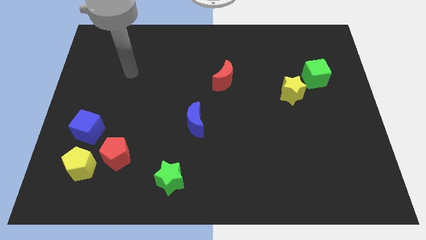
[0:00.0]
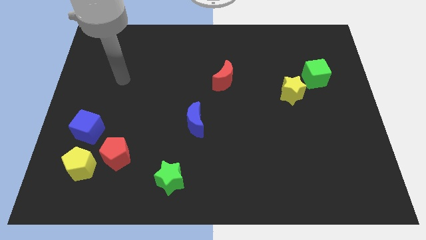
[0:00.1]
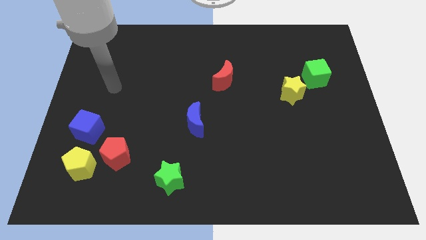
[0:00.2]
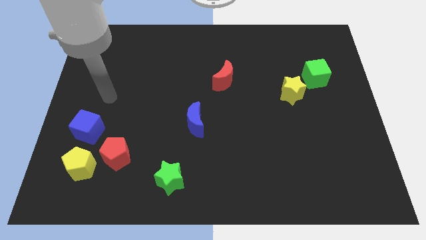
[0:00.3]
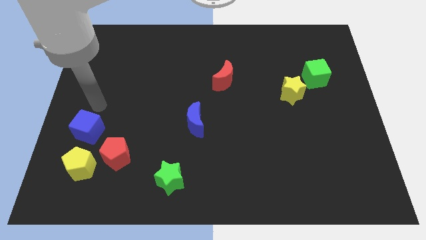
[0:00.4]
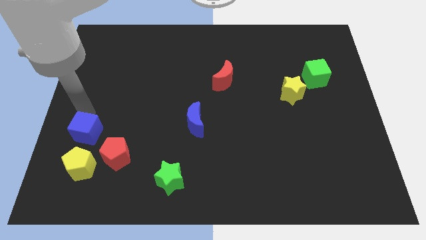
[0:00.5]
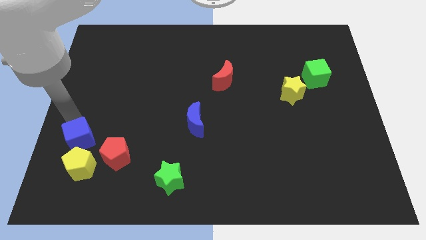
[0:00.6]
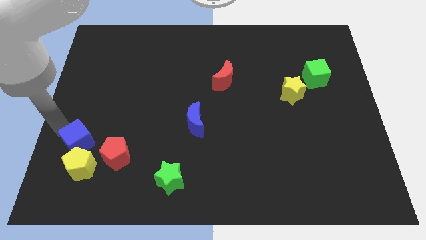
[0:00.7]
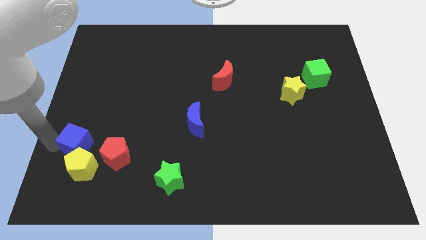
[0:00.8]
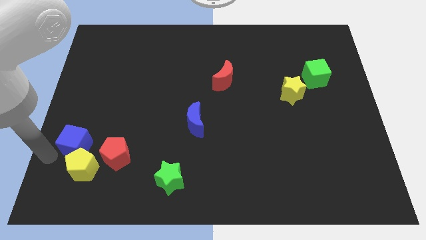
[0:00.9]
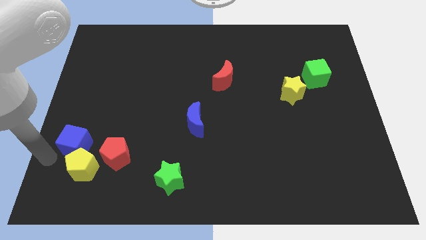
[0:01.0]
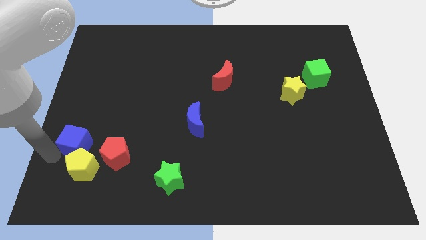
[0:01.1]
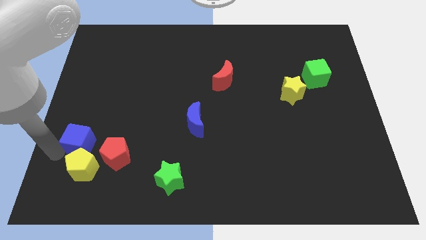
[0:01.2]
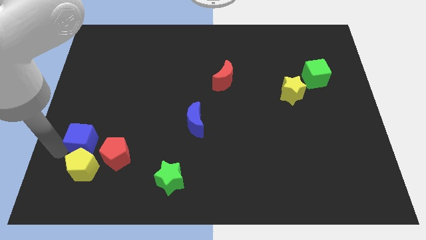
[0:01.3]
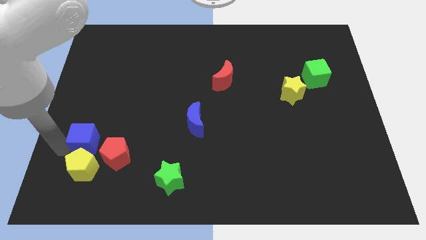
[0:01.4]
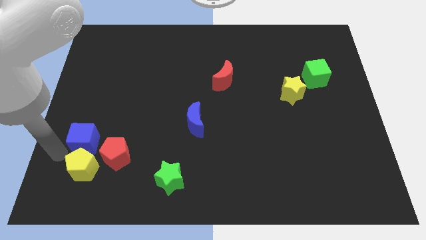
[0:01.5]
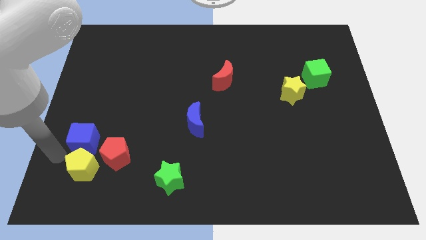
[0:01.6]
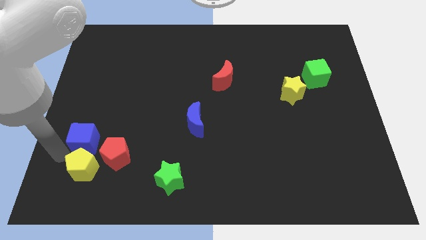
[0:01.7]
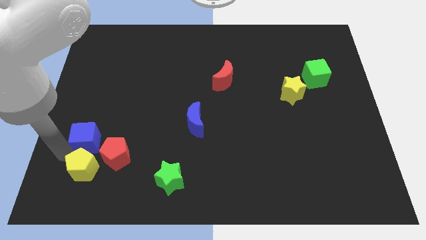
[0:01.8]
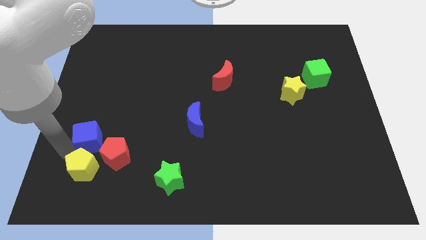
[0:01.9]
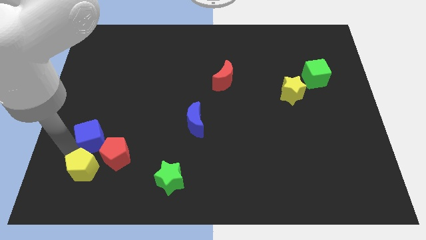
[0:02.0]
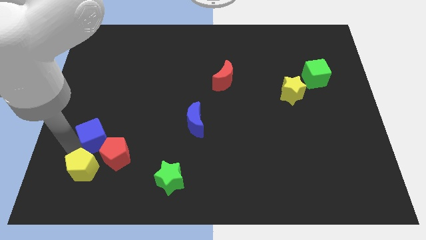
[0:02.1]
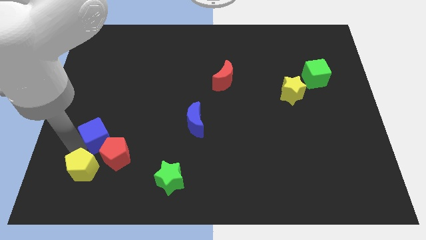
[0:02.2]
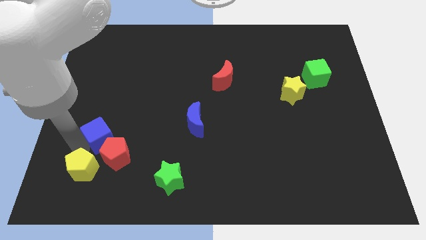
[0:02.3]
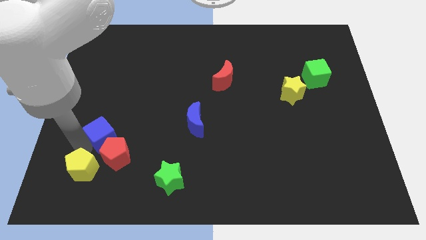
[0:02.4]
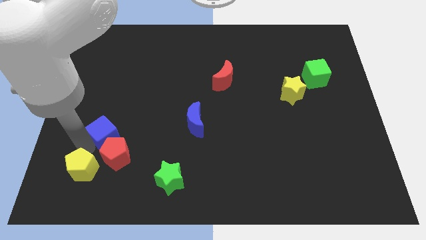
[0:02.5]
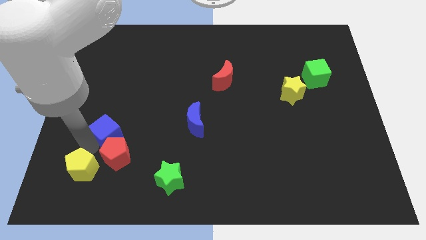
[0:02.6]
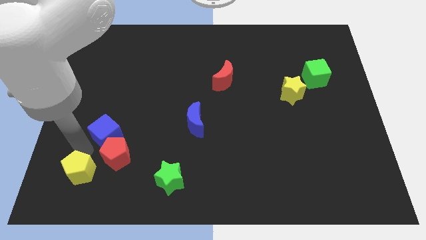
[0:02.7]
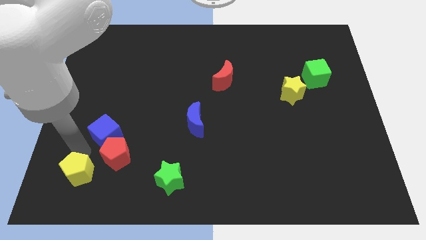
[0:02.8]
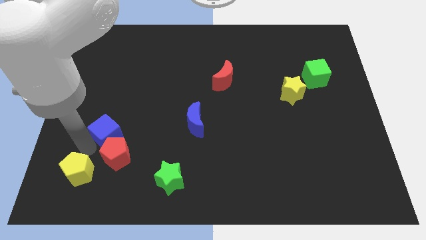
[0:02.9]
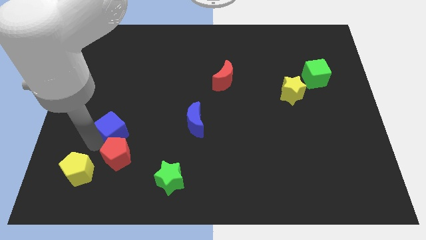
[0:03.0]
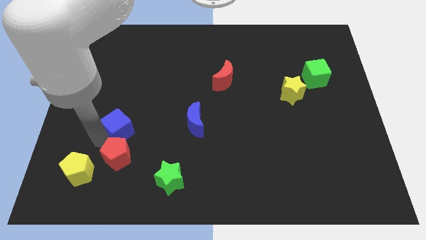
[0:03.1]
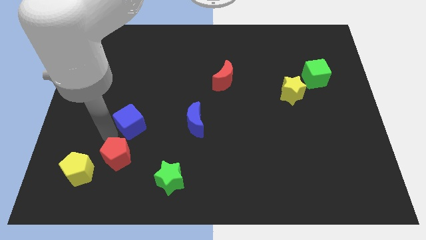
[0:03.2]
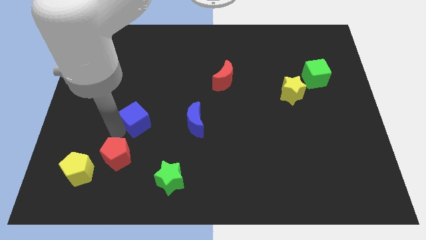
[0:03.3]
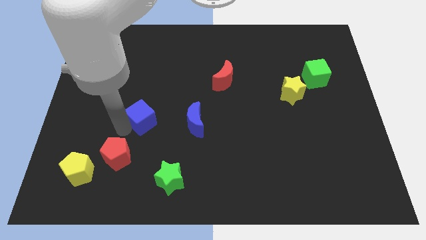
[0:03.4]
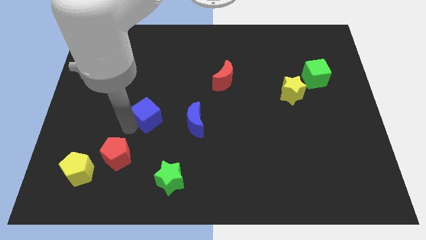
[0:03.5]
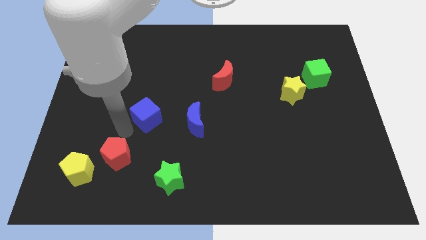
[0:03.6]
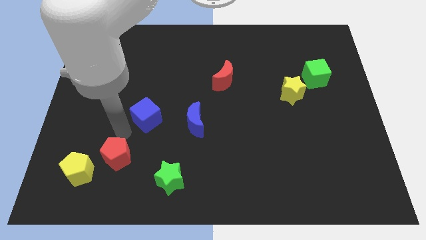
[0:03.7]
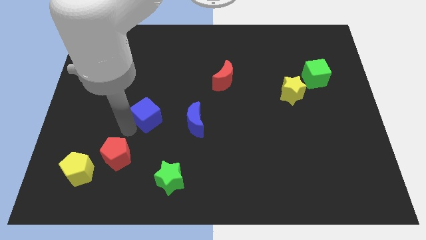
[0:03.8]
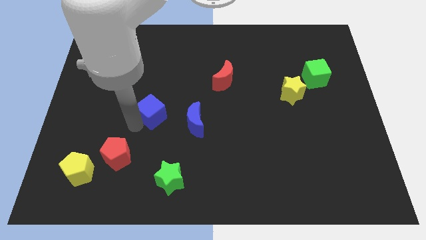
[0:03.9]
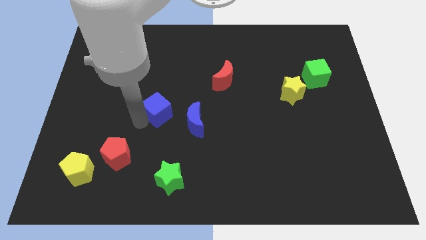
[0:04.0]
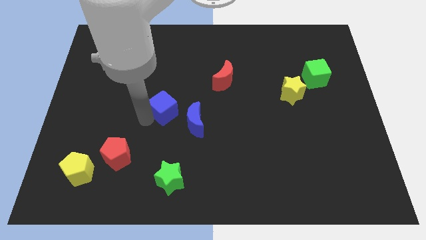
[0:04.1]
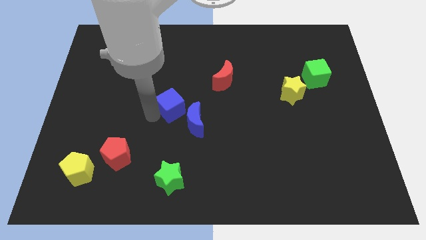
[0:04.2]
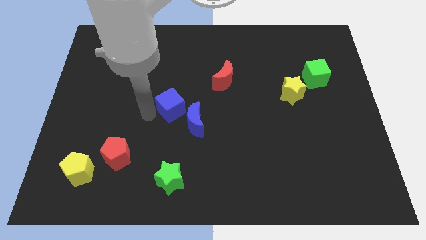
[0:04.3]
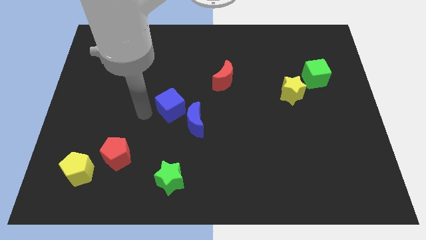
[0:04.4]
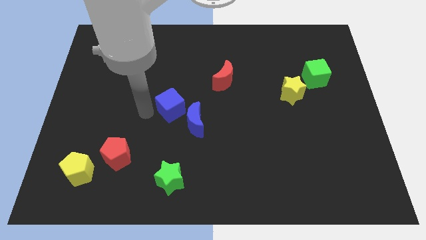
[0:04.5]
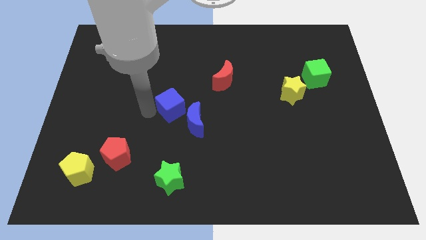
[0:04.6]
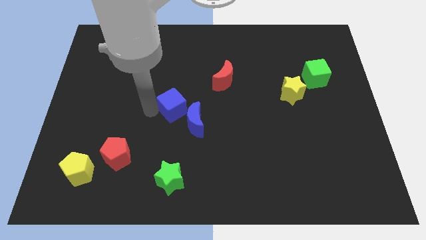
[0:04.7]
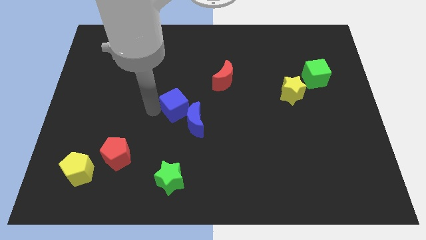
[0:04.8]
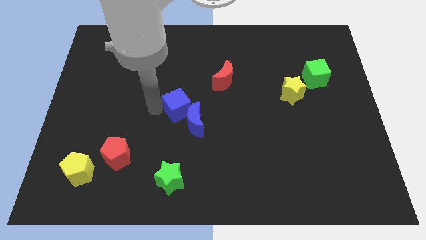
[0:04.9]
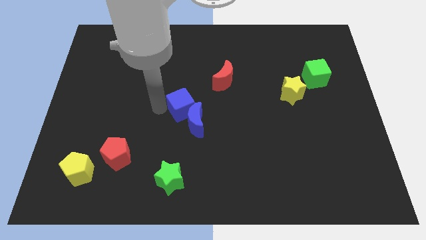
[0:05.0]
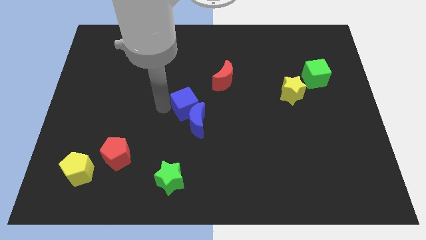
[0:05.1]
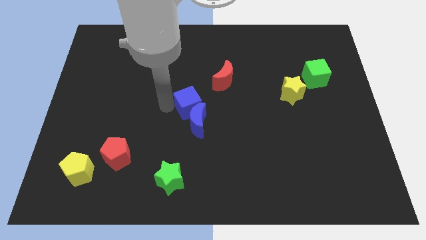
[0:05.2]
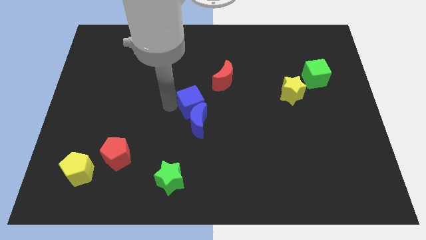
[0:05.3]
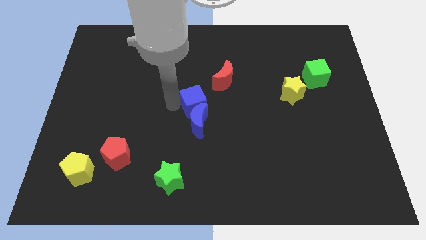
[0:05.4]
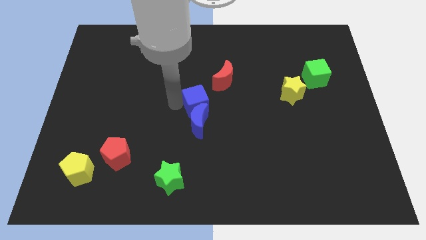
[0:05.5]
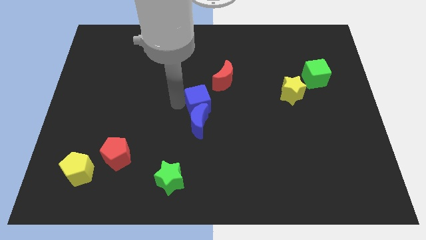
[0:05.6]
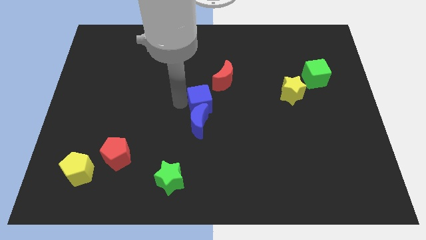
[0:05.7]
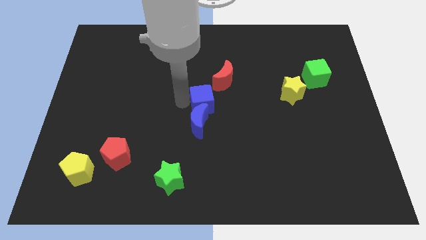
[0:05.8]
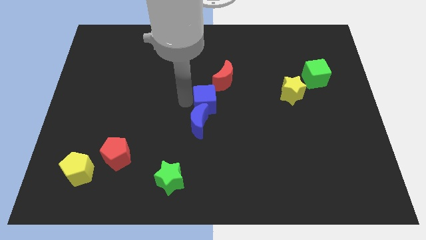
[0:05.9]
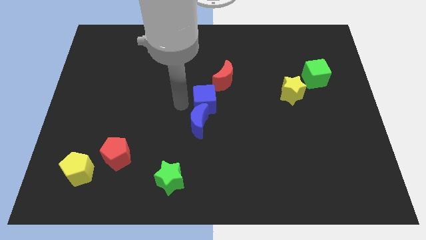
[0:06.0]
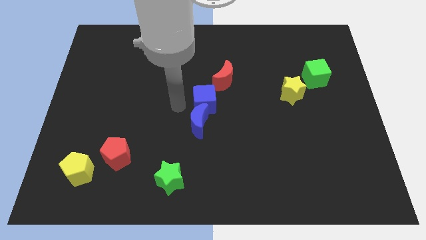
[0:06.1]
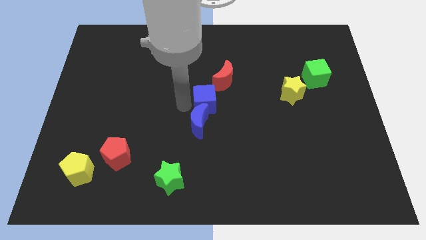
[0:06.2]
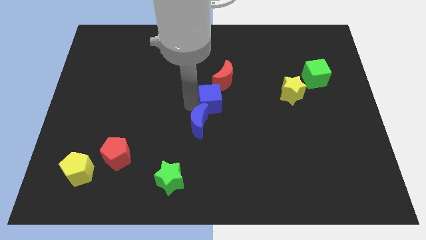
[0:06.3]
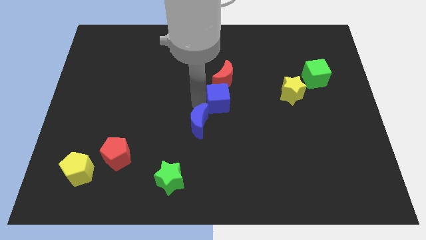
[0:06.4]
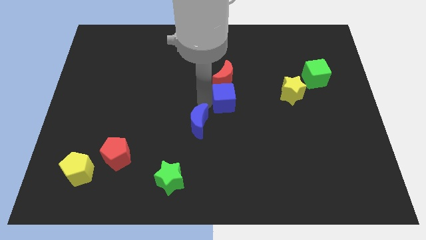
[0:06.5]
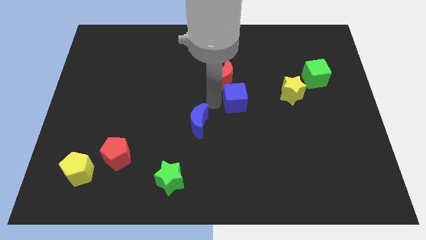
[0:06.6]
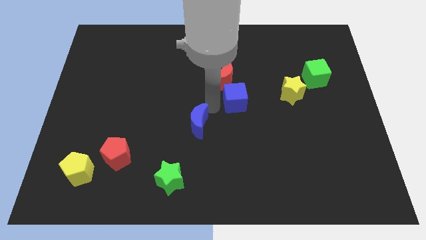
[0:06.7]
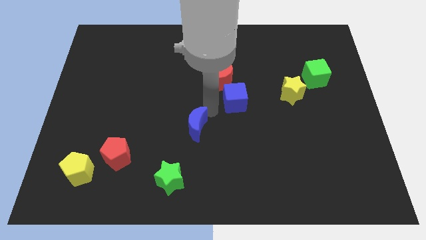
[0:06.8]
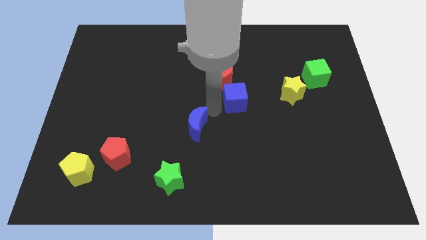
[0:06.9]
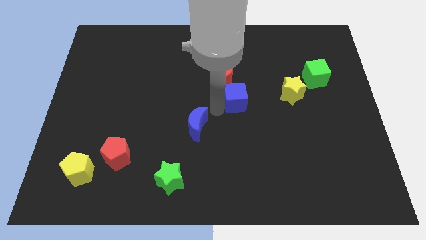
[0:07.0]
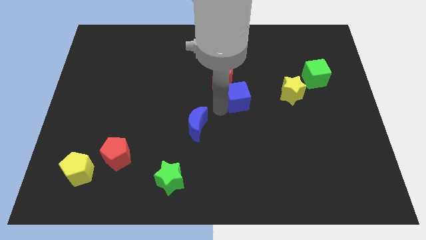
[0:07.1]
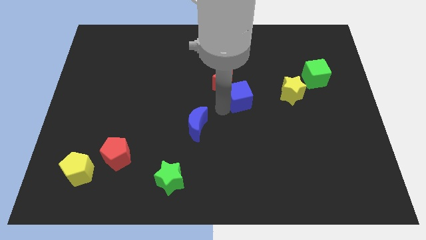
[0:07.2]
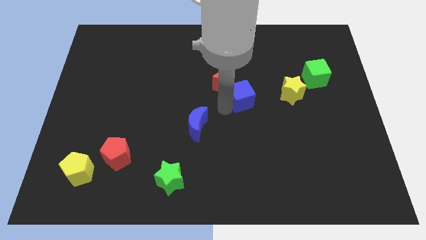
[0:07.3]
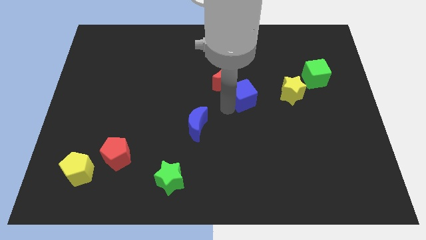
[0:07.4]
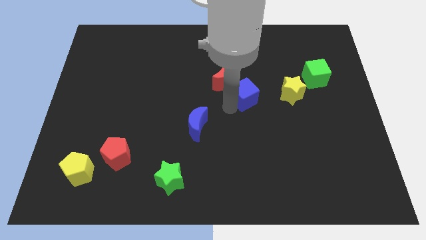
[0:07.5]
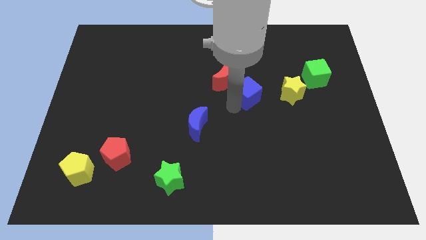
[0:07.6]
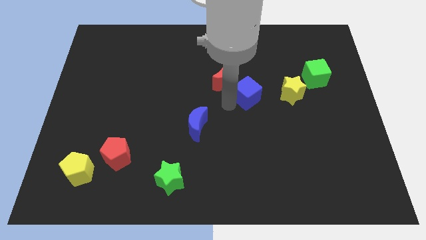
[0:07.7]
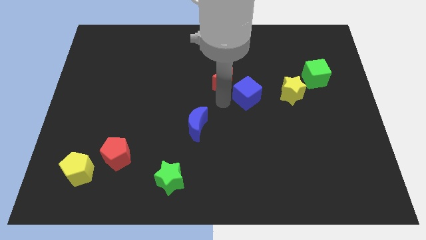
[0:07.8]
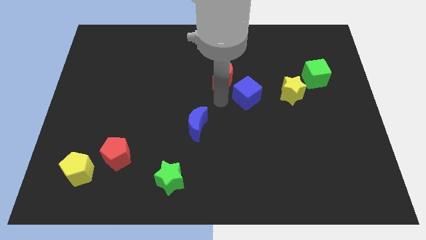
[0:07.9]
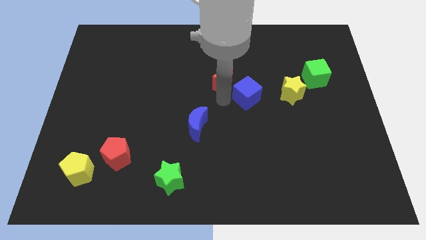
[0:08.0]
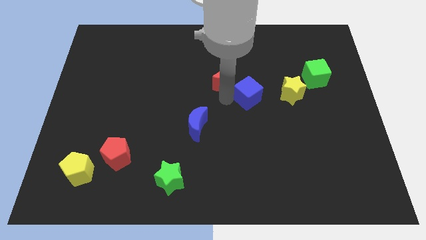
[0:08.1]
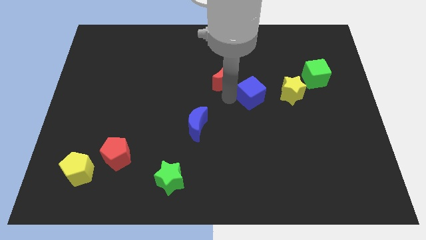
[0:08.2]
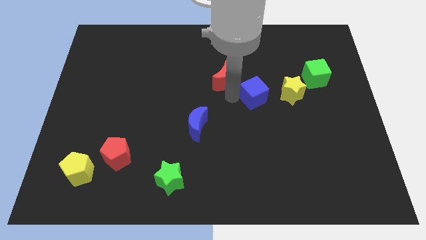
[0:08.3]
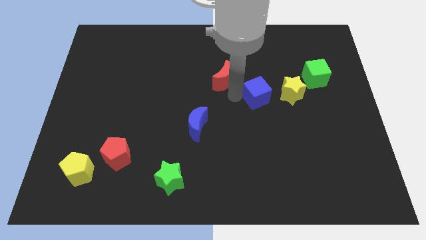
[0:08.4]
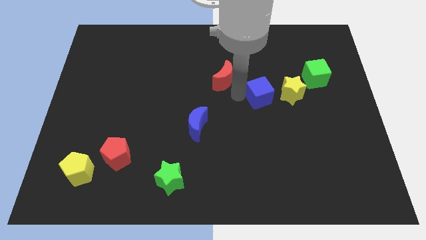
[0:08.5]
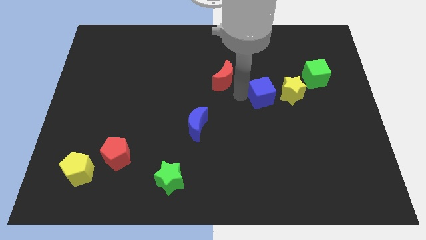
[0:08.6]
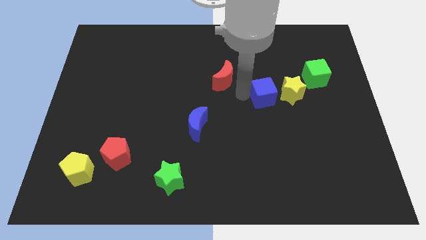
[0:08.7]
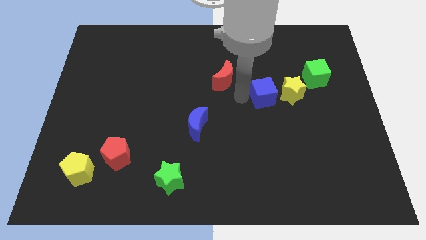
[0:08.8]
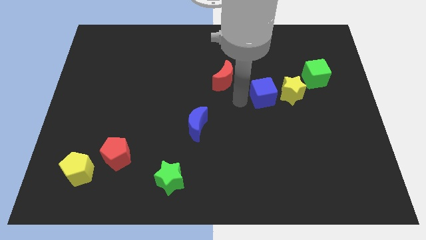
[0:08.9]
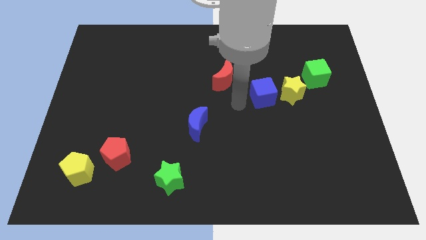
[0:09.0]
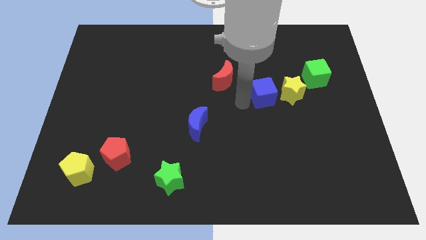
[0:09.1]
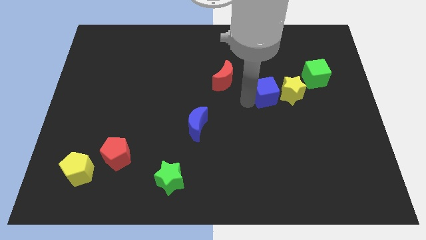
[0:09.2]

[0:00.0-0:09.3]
slide the blue cube close to the yellow star
